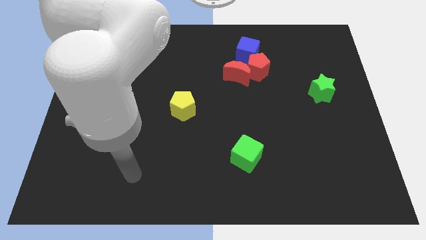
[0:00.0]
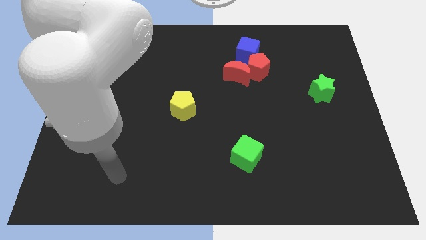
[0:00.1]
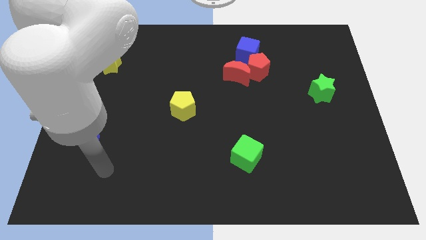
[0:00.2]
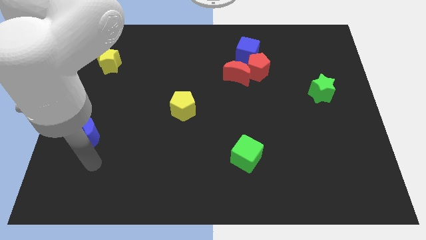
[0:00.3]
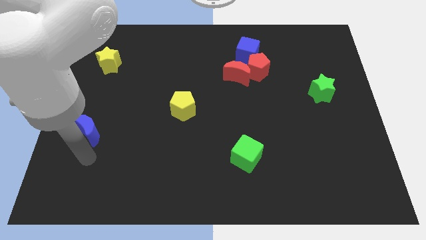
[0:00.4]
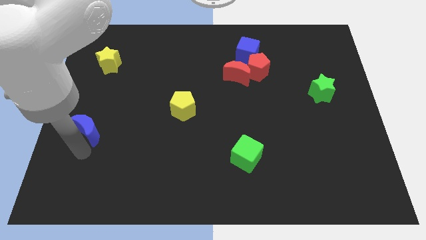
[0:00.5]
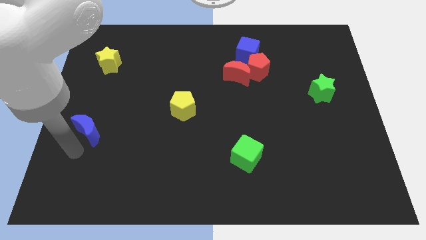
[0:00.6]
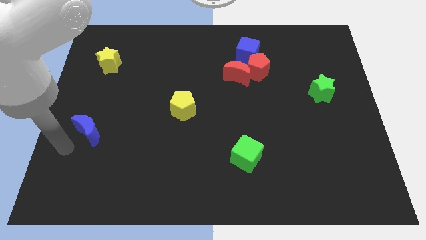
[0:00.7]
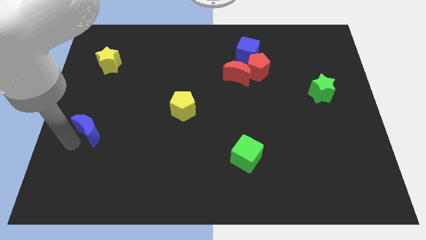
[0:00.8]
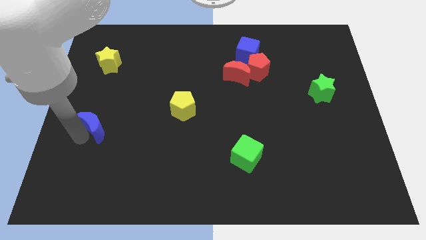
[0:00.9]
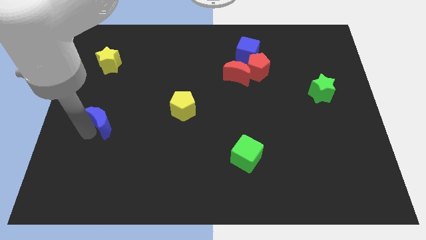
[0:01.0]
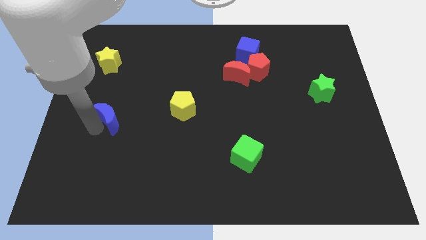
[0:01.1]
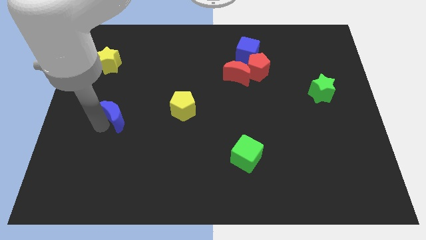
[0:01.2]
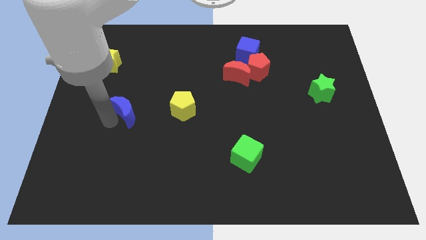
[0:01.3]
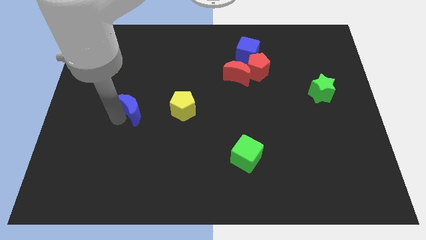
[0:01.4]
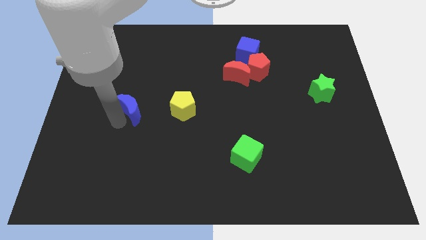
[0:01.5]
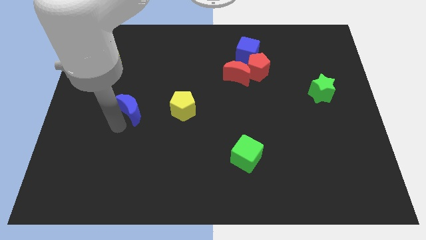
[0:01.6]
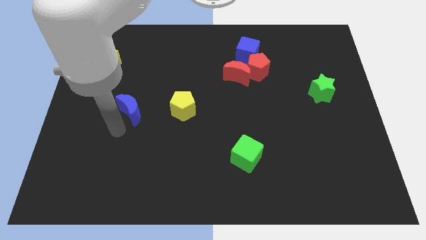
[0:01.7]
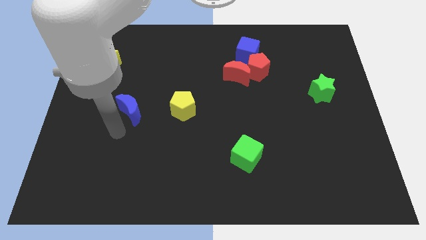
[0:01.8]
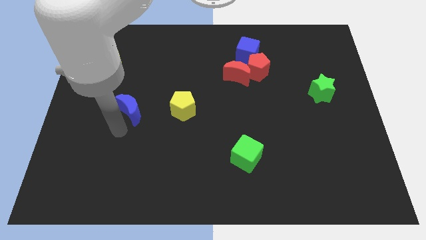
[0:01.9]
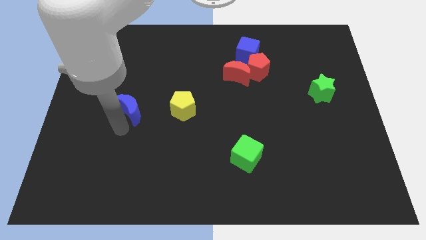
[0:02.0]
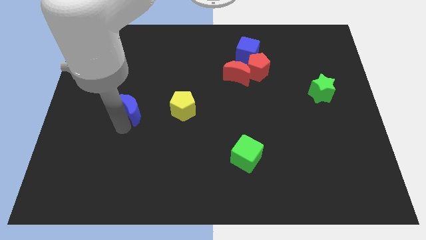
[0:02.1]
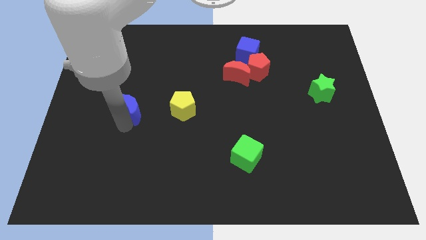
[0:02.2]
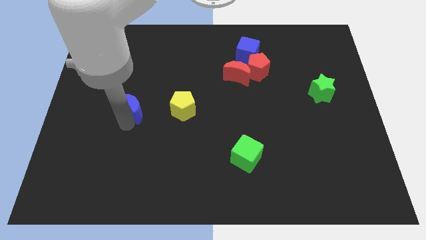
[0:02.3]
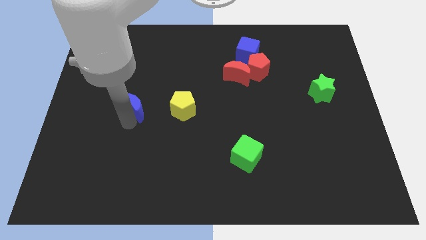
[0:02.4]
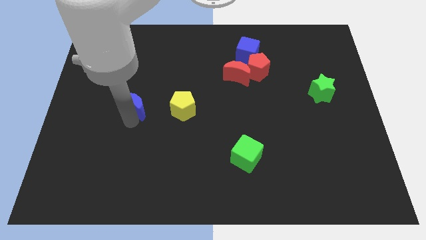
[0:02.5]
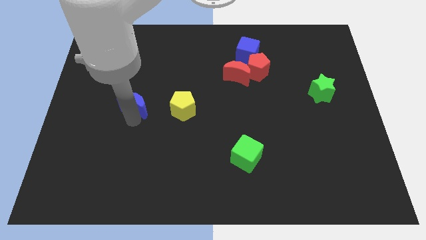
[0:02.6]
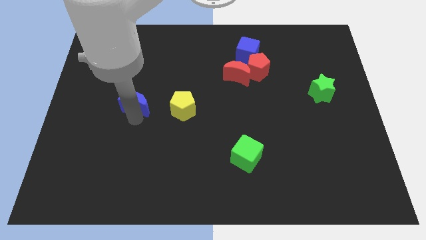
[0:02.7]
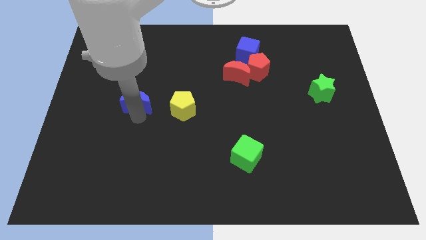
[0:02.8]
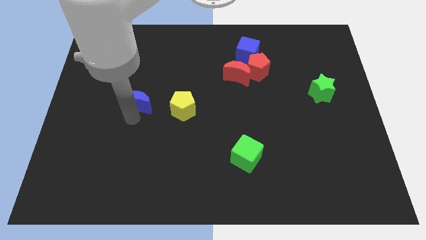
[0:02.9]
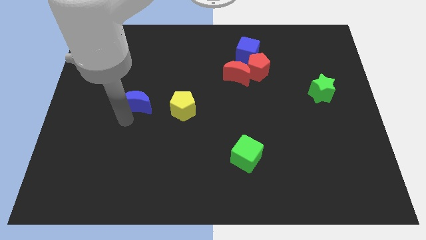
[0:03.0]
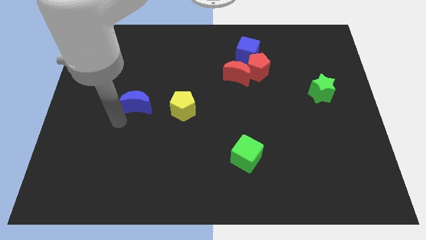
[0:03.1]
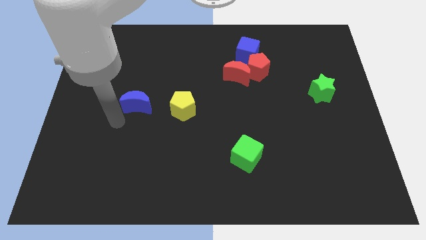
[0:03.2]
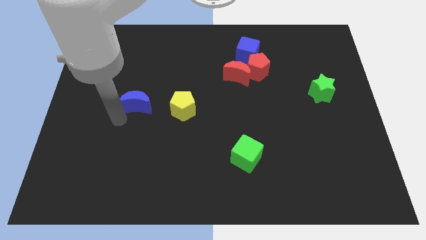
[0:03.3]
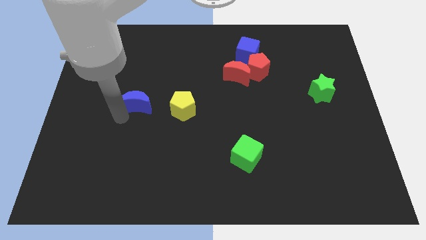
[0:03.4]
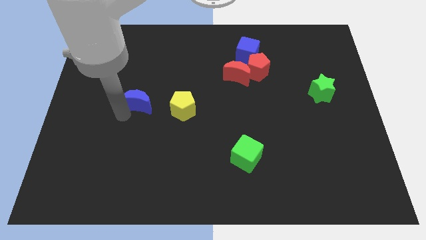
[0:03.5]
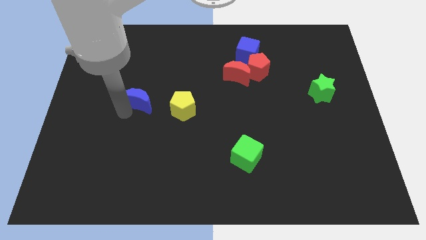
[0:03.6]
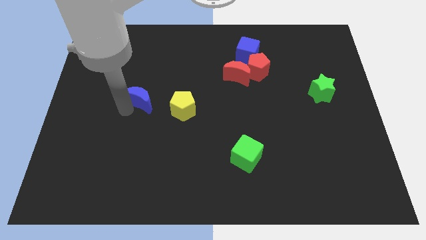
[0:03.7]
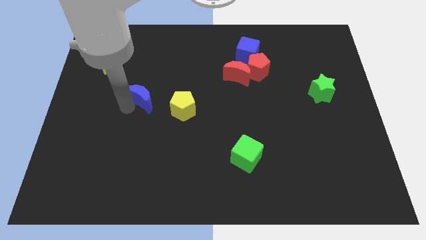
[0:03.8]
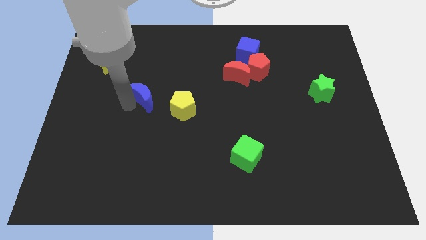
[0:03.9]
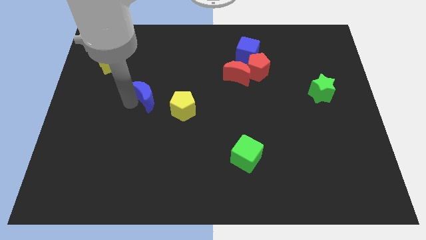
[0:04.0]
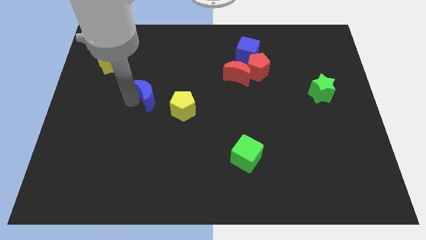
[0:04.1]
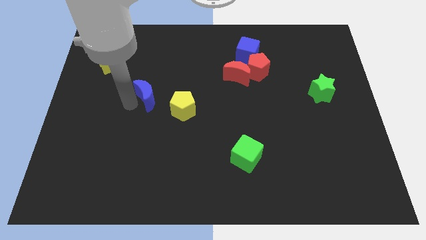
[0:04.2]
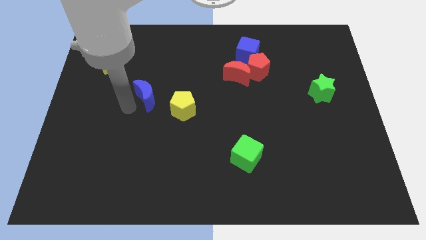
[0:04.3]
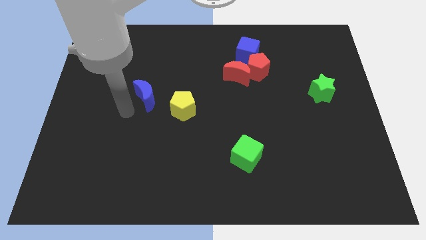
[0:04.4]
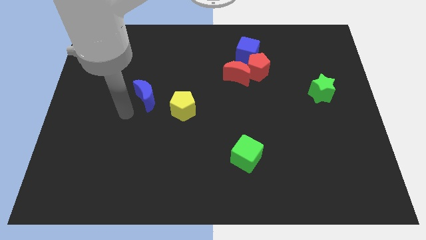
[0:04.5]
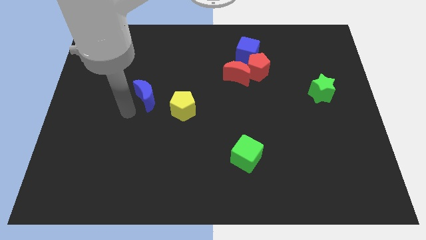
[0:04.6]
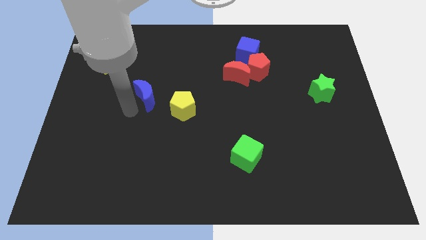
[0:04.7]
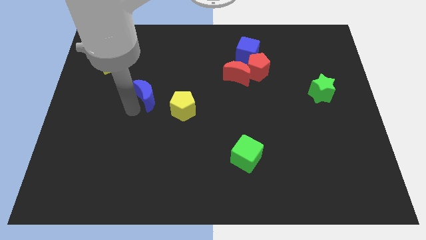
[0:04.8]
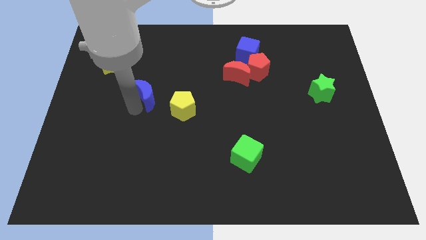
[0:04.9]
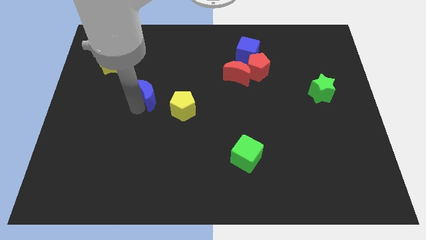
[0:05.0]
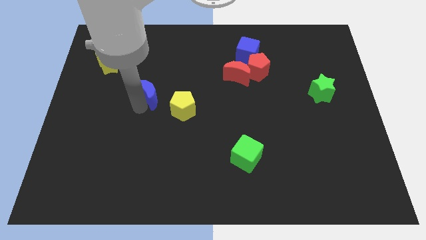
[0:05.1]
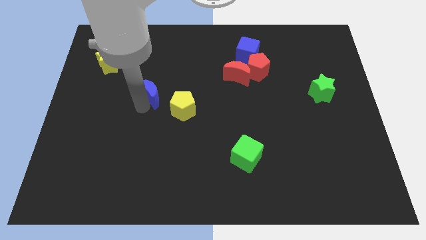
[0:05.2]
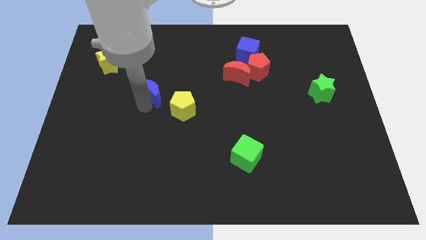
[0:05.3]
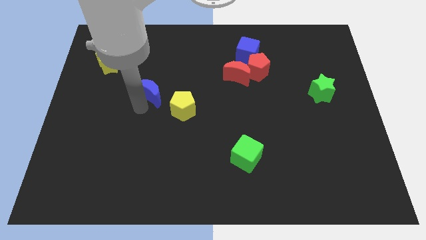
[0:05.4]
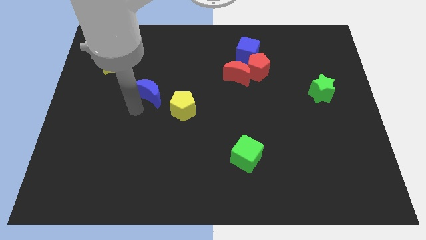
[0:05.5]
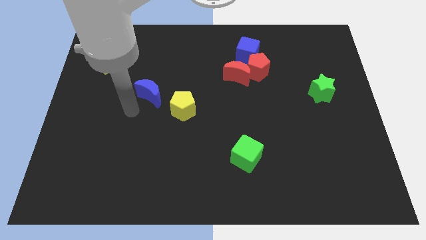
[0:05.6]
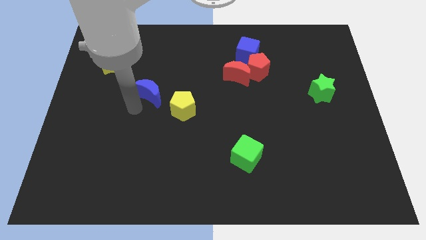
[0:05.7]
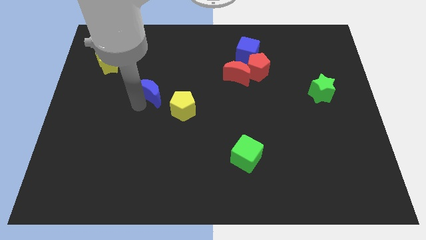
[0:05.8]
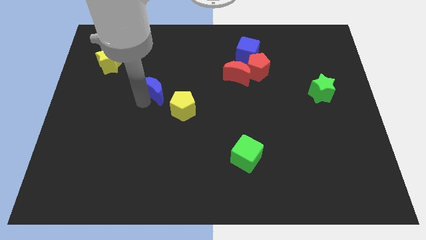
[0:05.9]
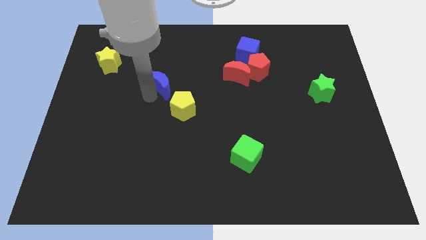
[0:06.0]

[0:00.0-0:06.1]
move the blue moon up and to the right

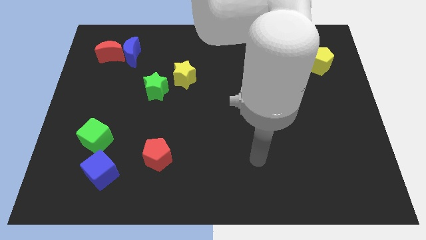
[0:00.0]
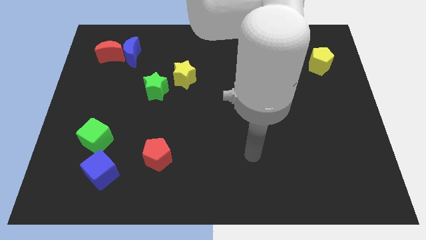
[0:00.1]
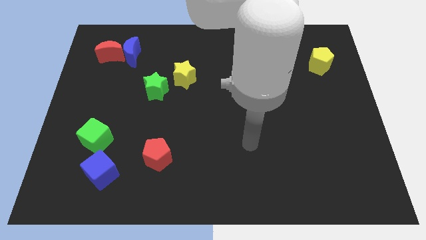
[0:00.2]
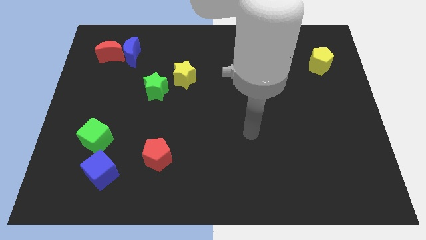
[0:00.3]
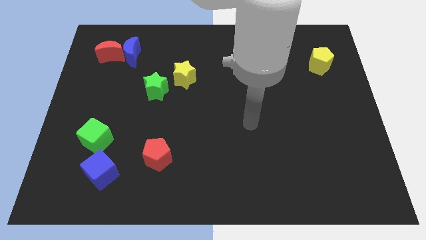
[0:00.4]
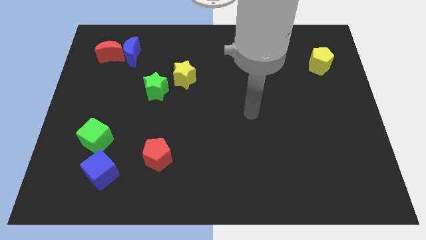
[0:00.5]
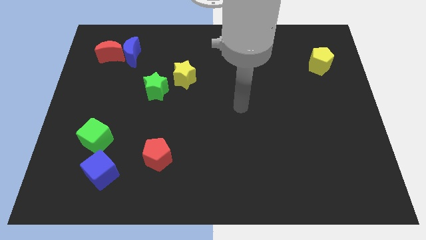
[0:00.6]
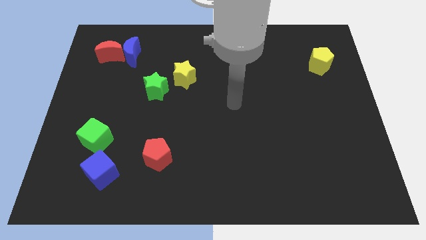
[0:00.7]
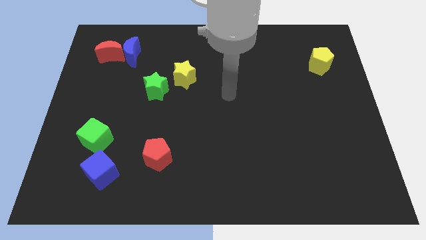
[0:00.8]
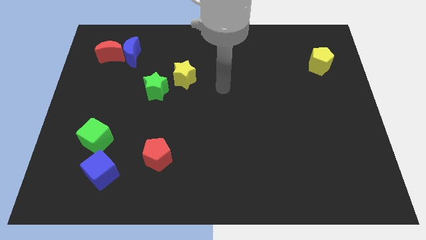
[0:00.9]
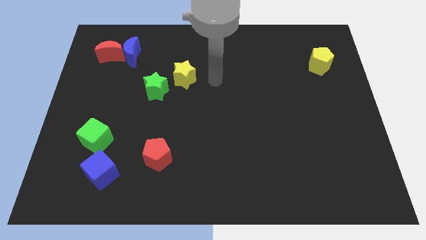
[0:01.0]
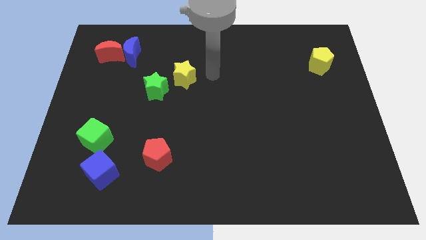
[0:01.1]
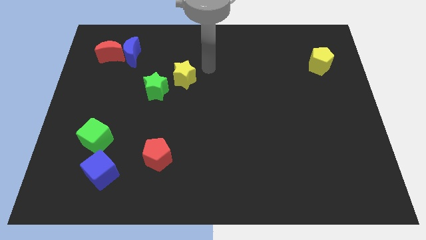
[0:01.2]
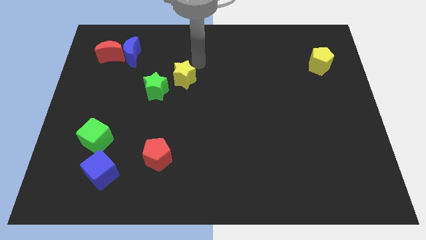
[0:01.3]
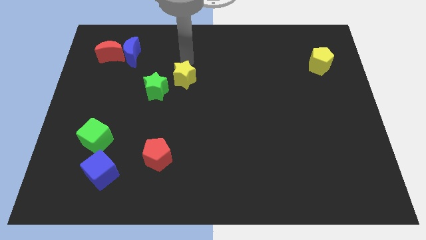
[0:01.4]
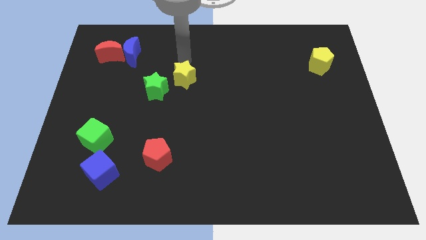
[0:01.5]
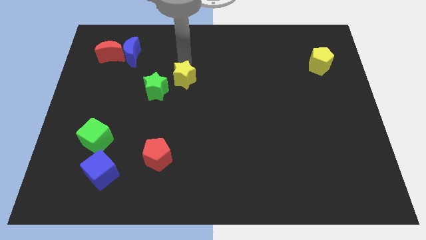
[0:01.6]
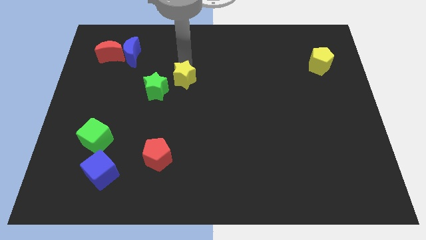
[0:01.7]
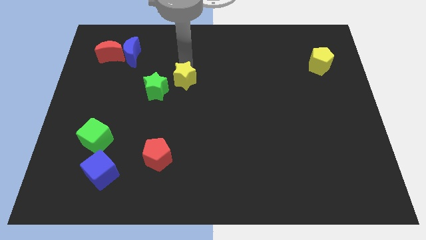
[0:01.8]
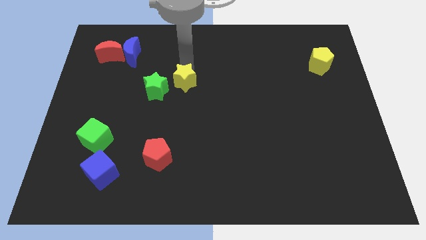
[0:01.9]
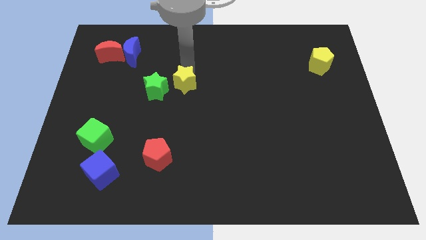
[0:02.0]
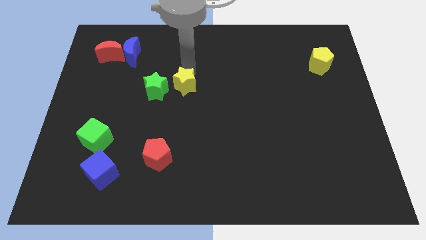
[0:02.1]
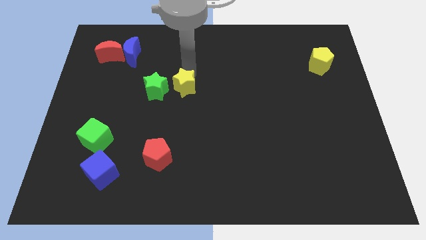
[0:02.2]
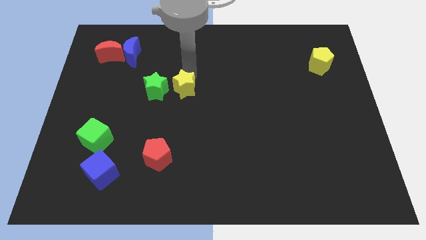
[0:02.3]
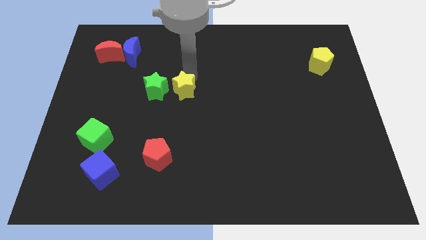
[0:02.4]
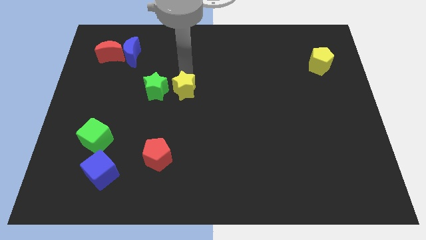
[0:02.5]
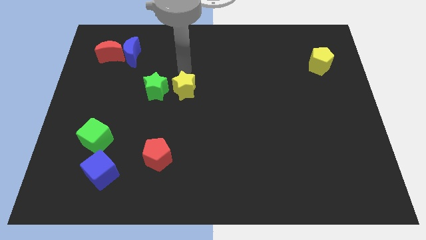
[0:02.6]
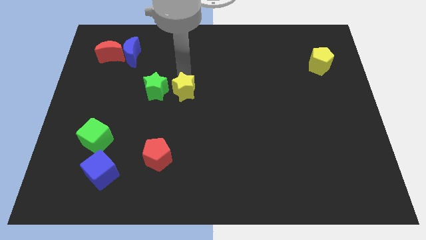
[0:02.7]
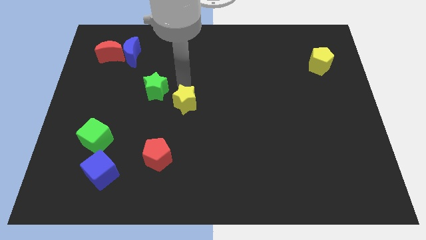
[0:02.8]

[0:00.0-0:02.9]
push the yellow star down slightly
